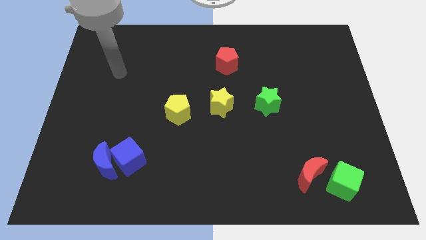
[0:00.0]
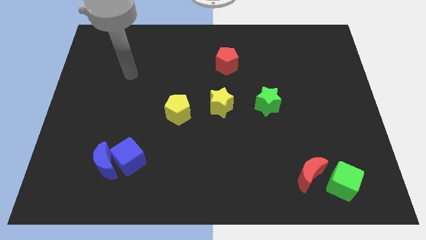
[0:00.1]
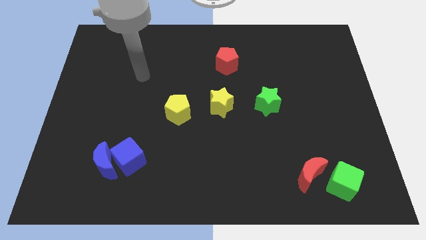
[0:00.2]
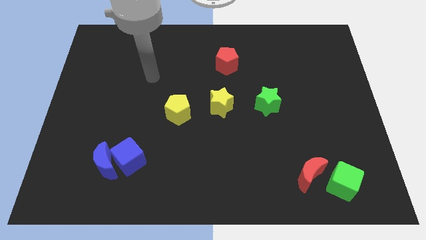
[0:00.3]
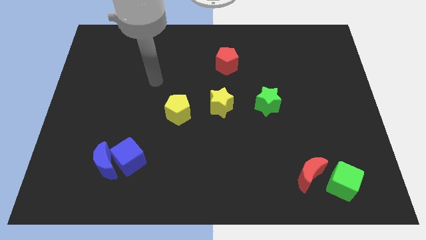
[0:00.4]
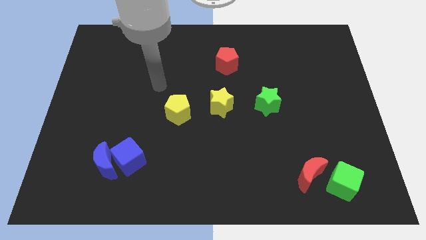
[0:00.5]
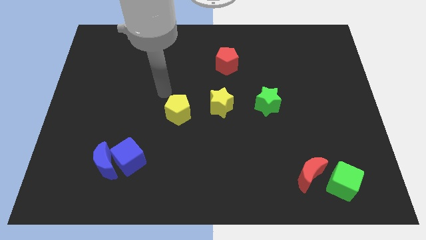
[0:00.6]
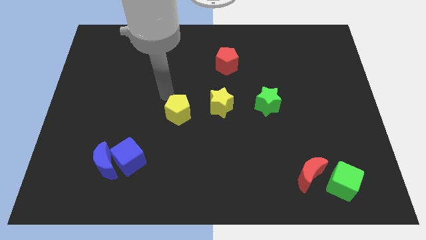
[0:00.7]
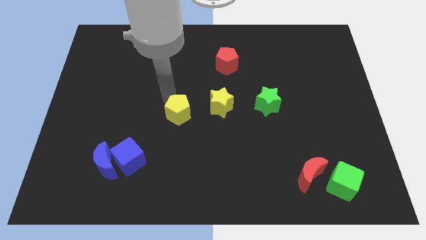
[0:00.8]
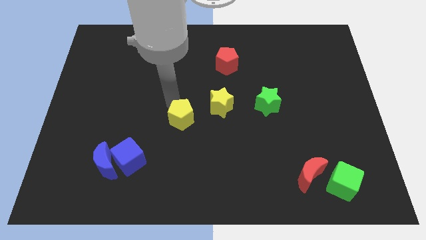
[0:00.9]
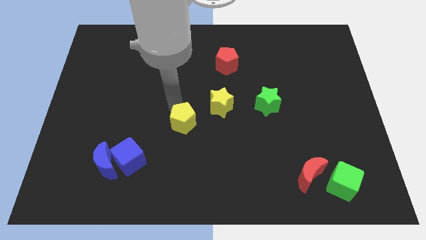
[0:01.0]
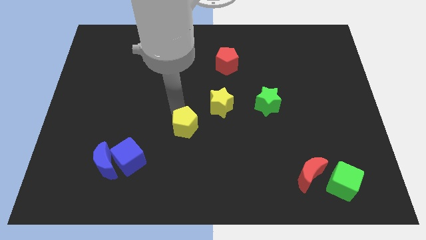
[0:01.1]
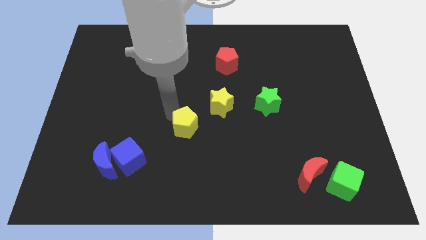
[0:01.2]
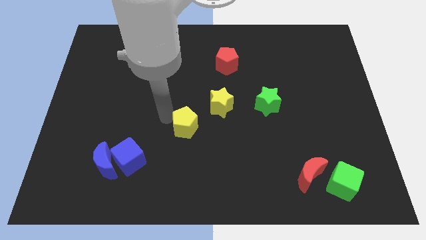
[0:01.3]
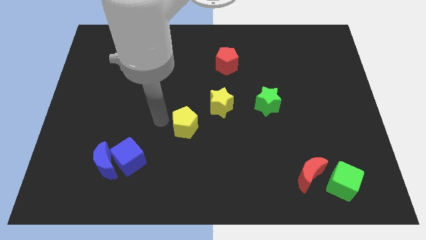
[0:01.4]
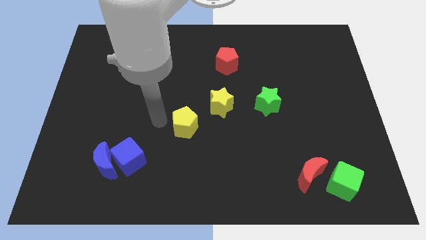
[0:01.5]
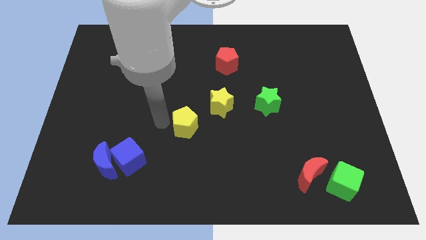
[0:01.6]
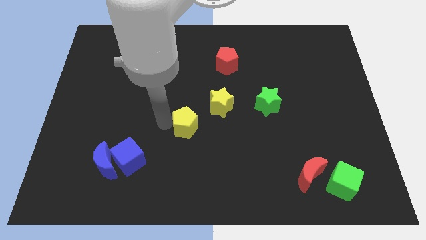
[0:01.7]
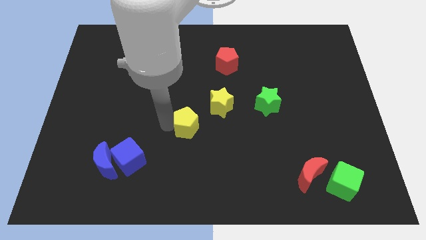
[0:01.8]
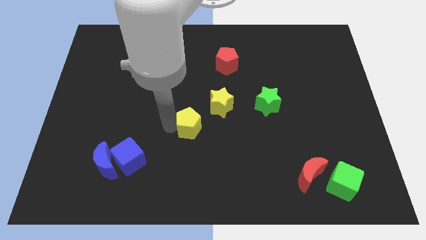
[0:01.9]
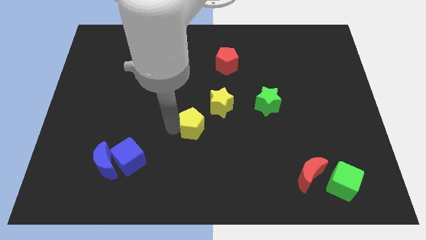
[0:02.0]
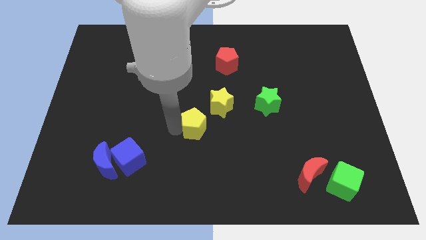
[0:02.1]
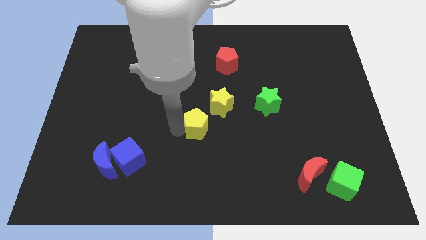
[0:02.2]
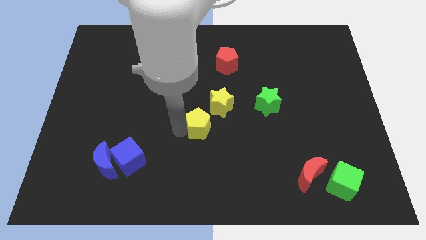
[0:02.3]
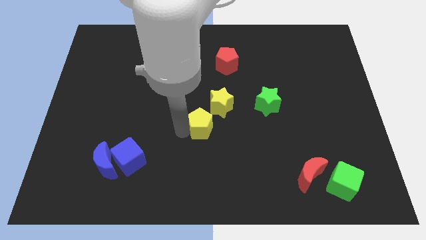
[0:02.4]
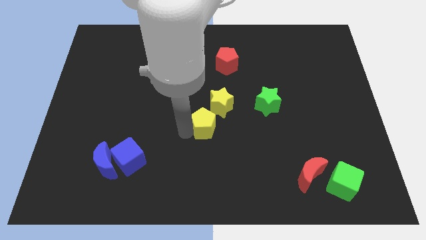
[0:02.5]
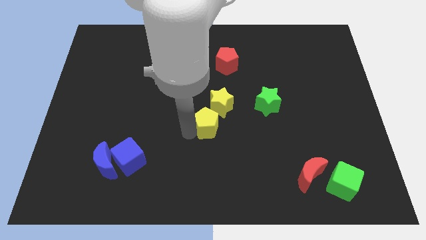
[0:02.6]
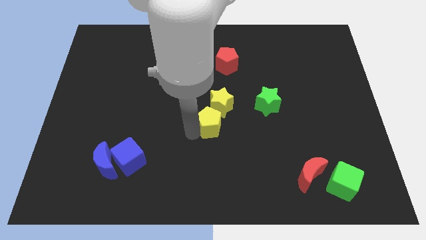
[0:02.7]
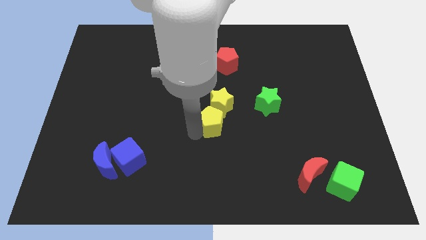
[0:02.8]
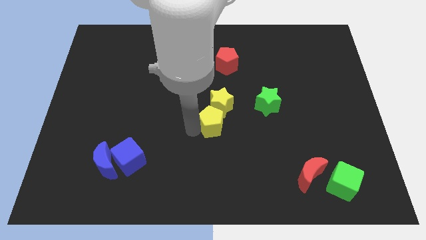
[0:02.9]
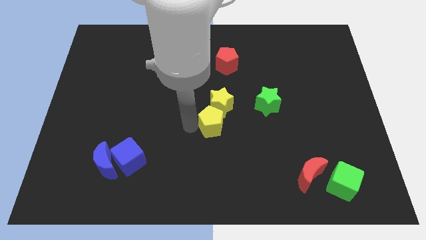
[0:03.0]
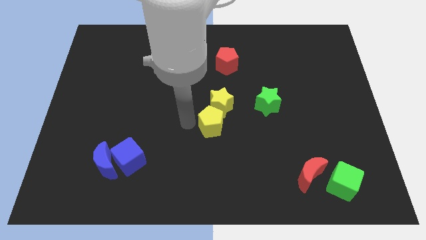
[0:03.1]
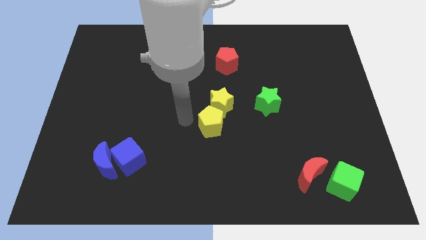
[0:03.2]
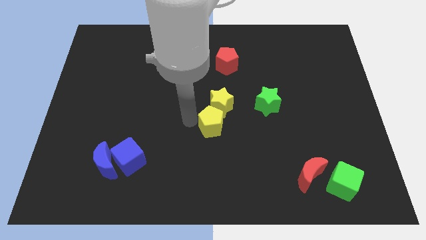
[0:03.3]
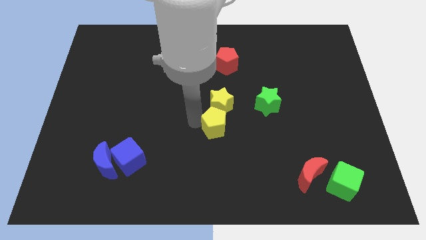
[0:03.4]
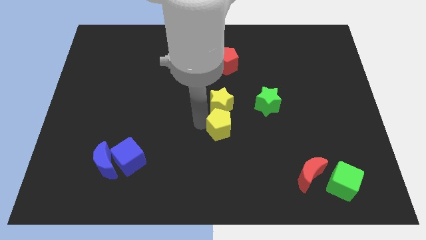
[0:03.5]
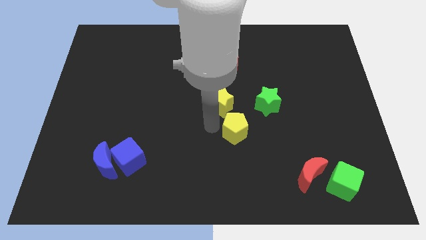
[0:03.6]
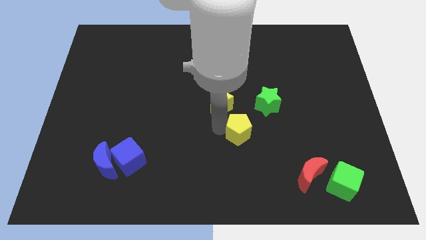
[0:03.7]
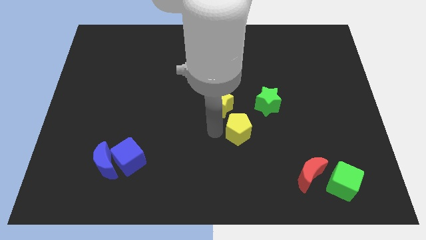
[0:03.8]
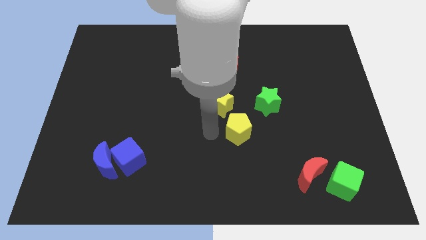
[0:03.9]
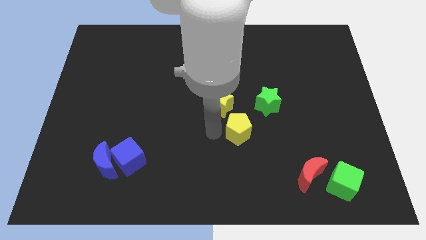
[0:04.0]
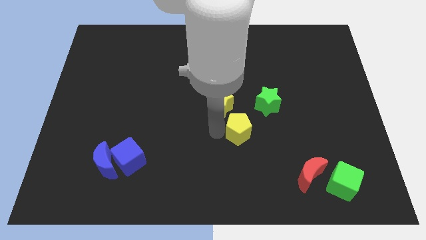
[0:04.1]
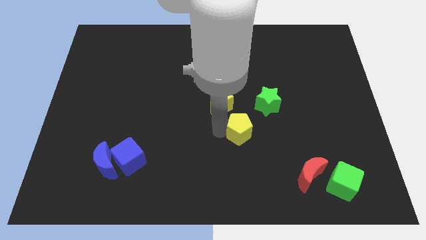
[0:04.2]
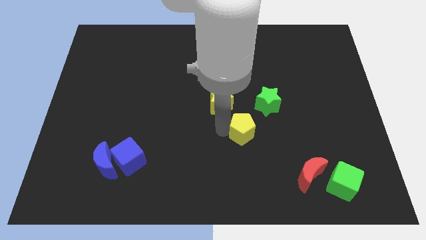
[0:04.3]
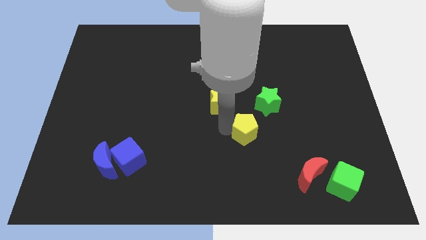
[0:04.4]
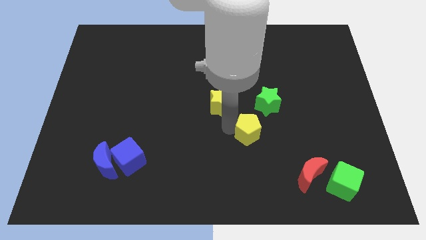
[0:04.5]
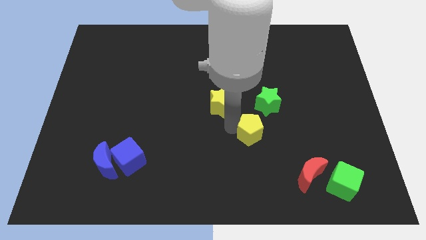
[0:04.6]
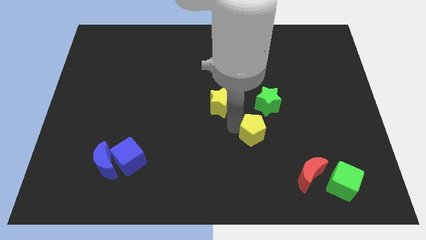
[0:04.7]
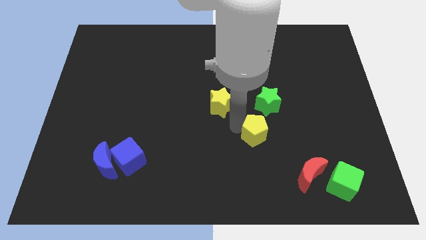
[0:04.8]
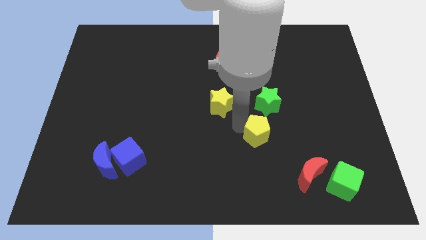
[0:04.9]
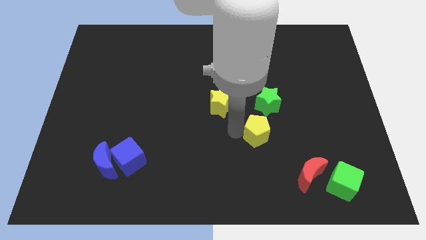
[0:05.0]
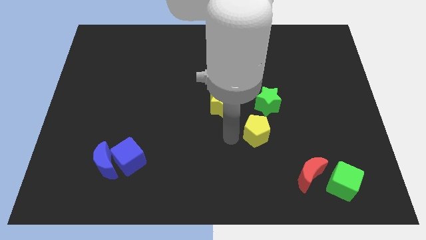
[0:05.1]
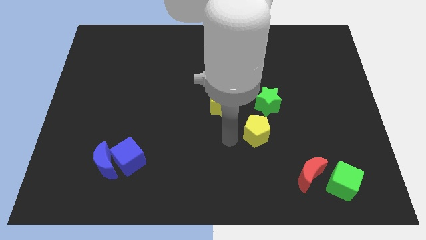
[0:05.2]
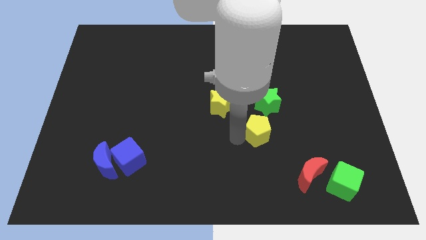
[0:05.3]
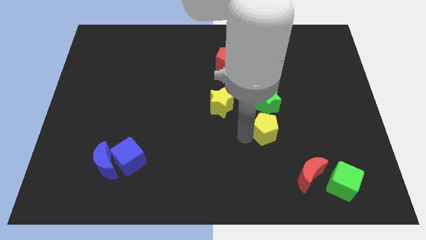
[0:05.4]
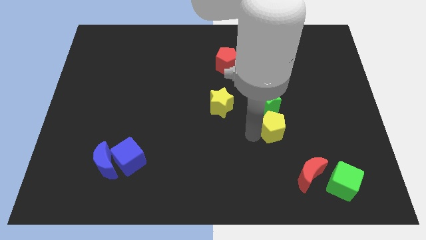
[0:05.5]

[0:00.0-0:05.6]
push the yellow pentagon to the right

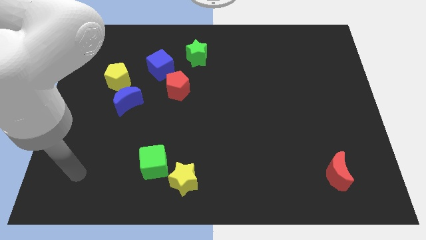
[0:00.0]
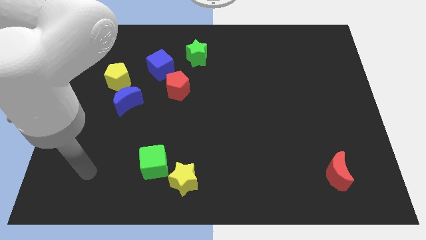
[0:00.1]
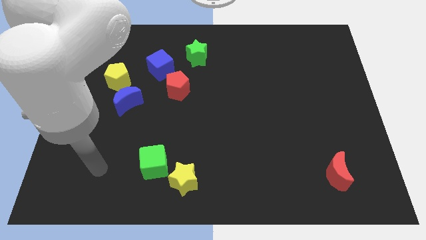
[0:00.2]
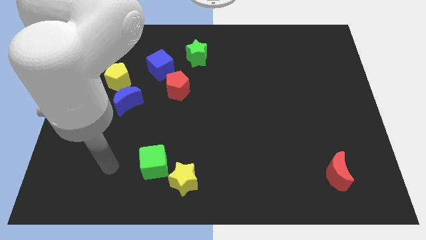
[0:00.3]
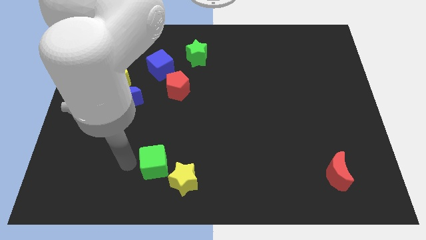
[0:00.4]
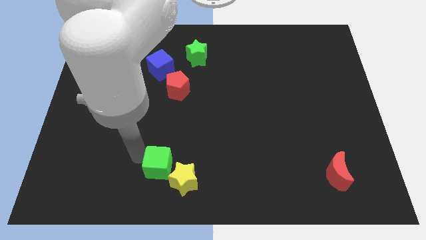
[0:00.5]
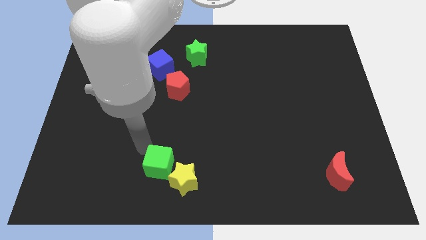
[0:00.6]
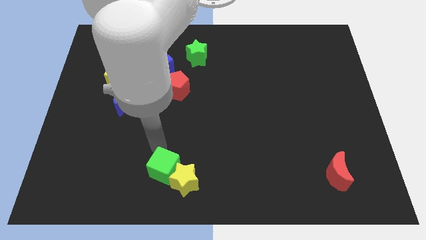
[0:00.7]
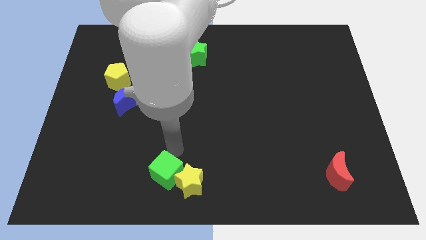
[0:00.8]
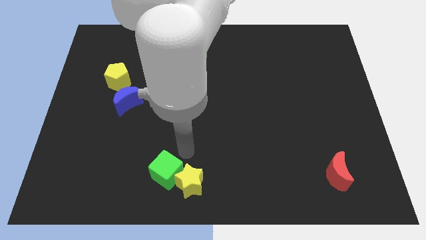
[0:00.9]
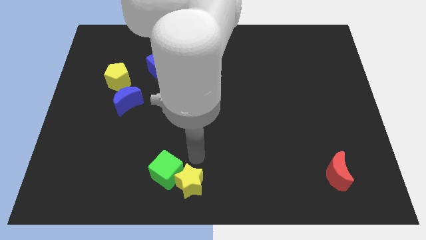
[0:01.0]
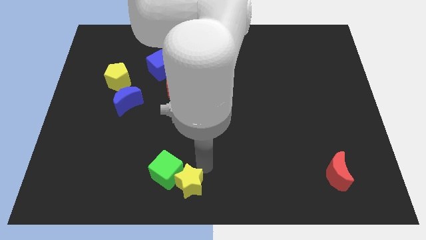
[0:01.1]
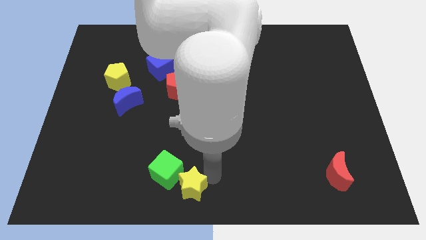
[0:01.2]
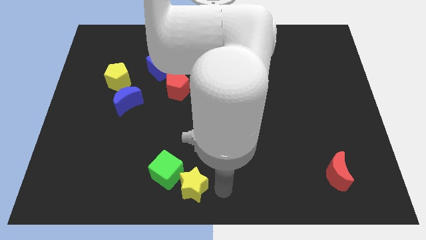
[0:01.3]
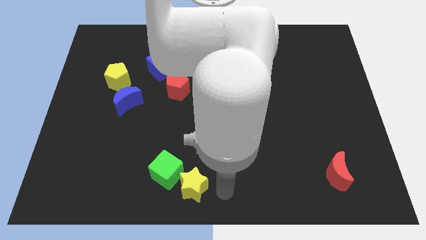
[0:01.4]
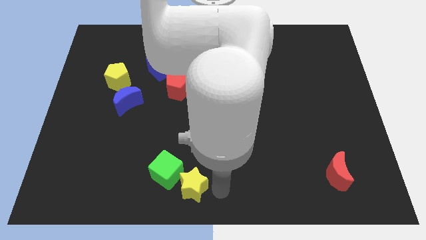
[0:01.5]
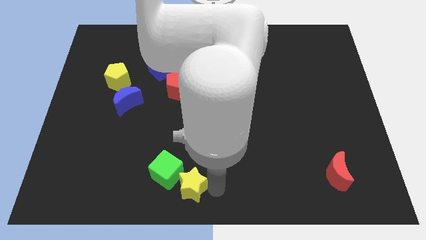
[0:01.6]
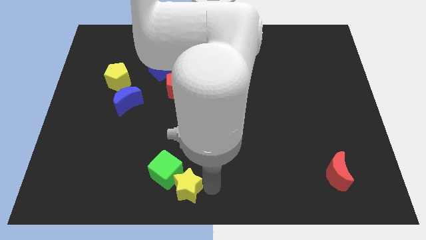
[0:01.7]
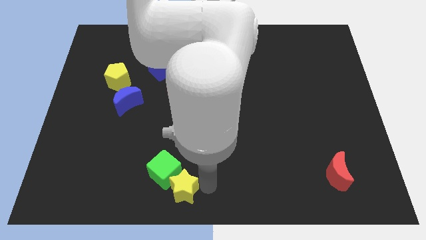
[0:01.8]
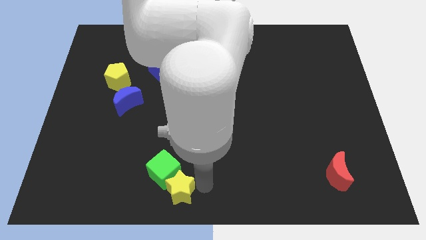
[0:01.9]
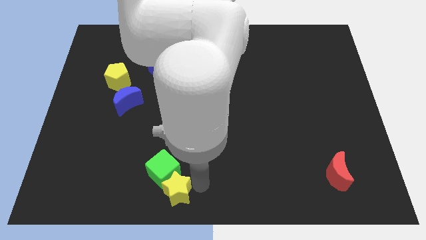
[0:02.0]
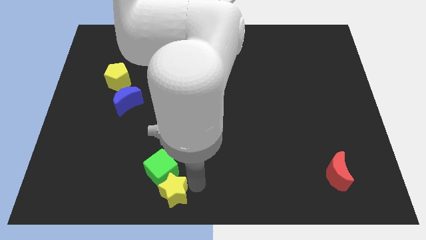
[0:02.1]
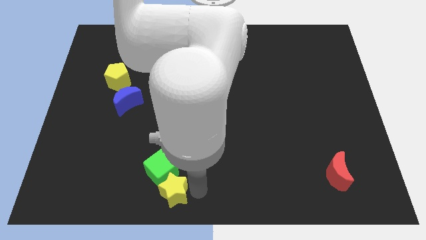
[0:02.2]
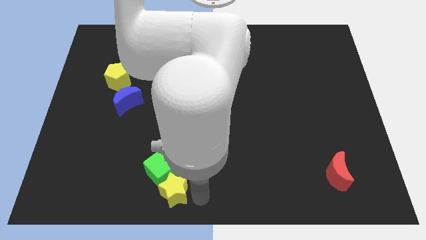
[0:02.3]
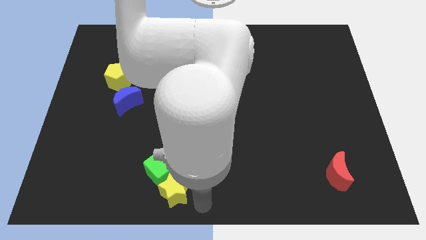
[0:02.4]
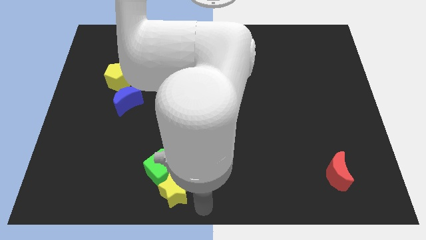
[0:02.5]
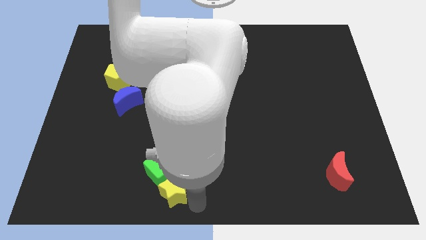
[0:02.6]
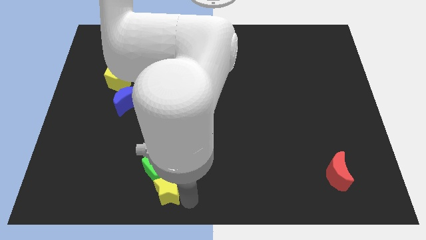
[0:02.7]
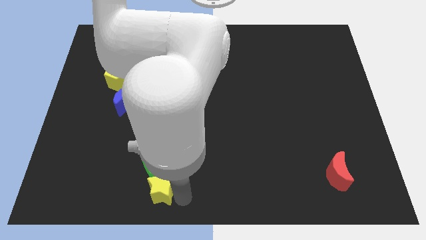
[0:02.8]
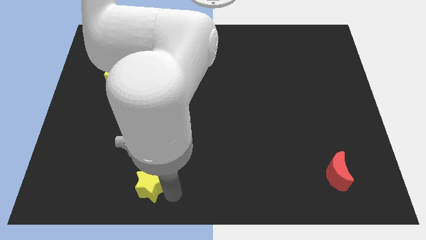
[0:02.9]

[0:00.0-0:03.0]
slightly move the yellow star left
